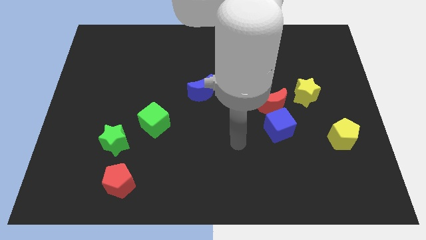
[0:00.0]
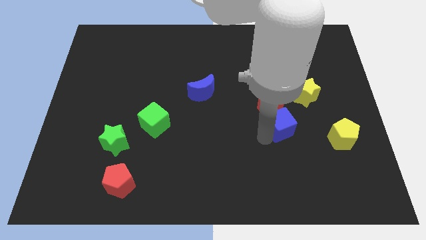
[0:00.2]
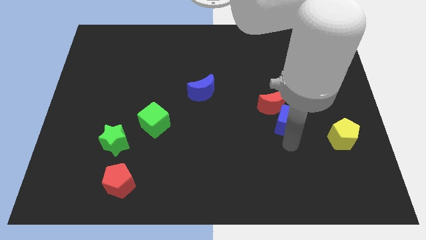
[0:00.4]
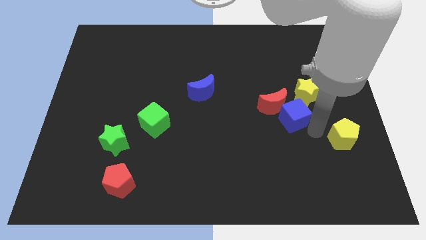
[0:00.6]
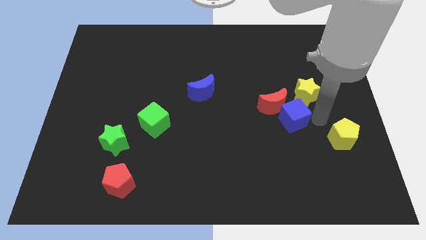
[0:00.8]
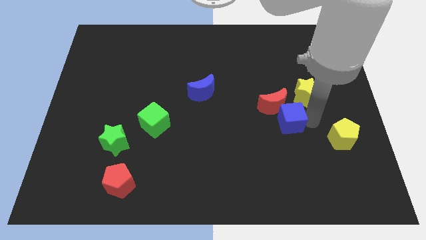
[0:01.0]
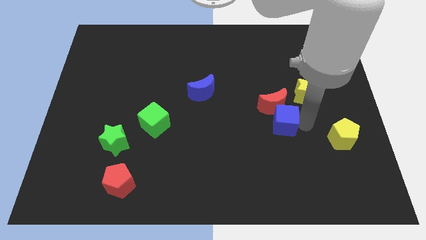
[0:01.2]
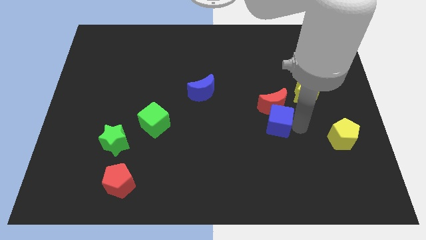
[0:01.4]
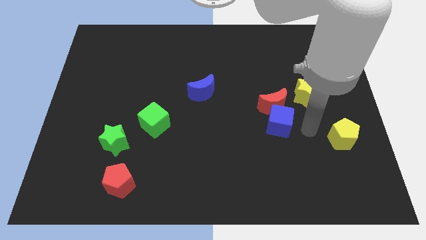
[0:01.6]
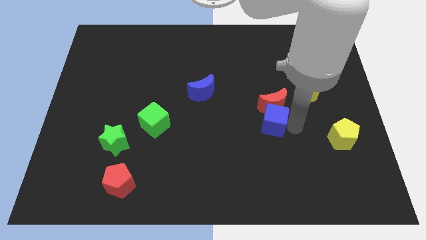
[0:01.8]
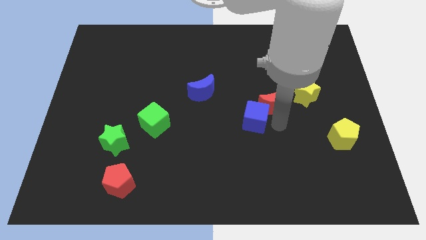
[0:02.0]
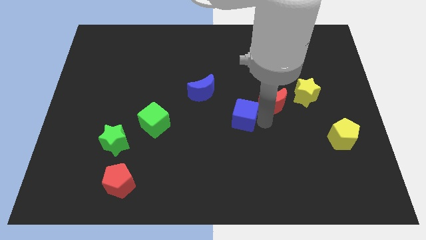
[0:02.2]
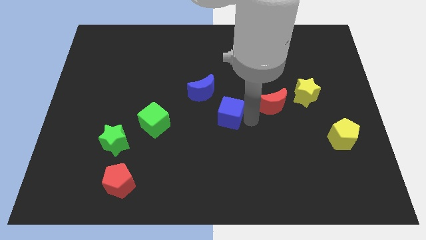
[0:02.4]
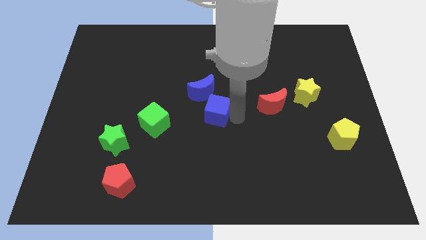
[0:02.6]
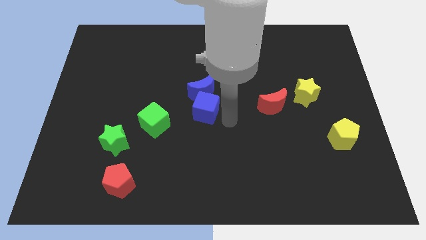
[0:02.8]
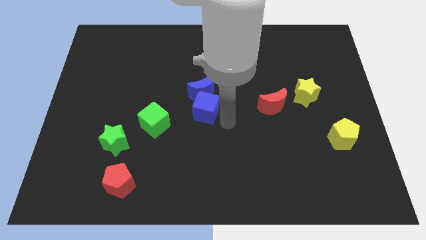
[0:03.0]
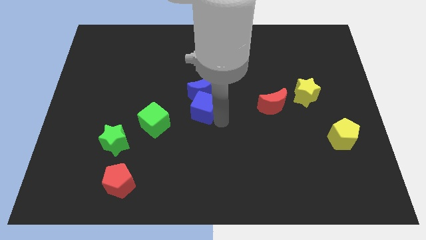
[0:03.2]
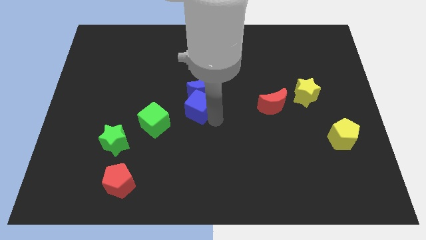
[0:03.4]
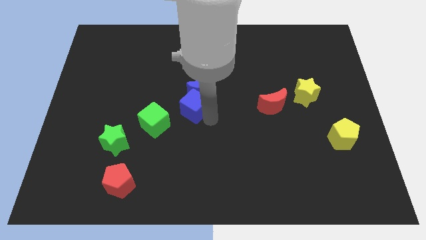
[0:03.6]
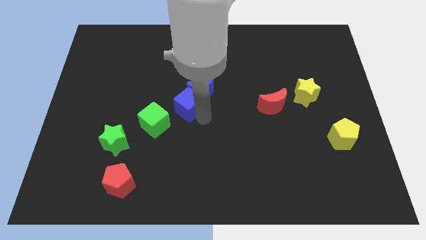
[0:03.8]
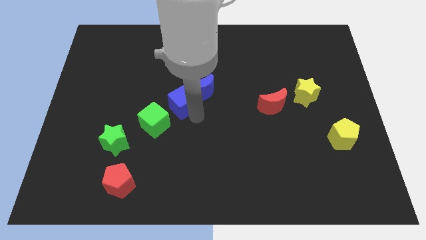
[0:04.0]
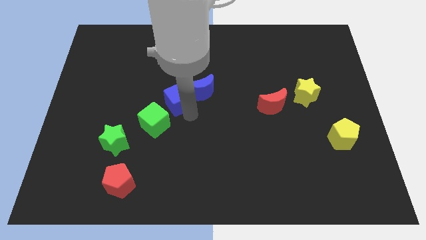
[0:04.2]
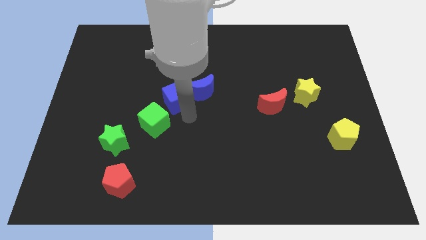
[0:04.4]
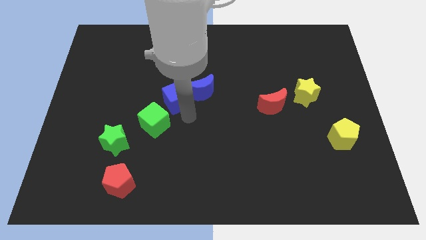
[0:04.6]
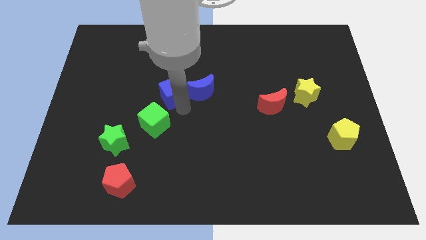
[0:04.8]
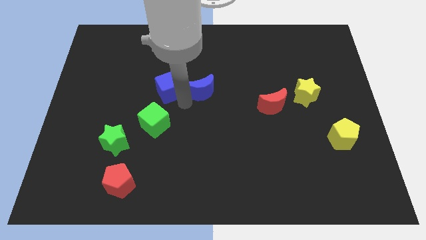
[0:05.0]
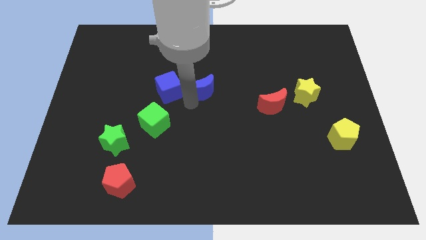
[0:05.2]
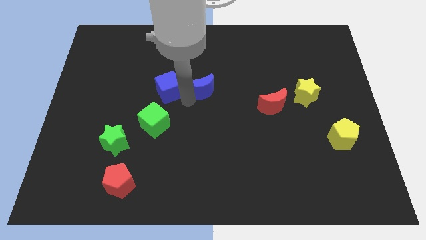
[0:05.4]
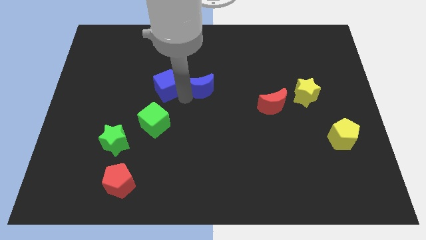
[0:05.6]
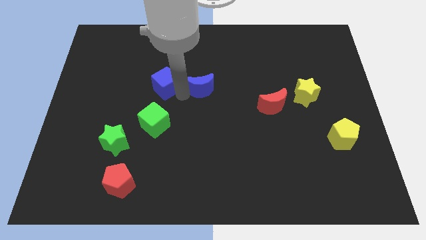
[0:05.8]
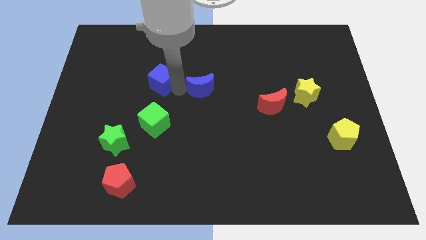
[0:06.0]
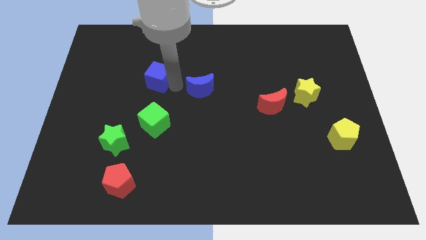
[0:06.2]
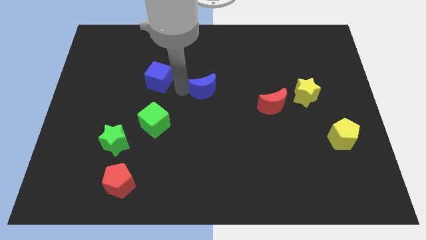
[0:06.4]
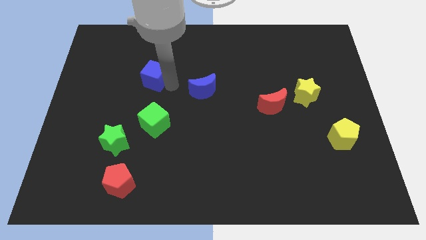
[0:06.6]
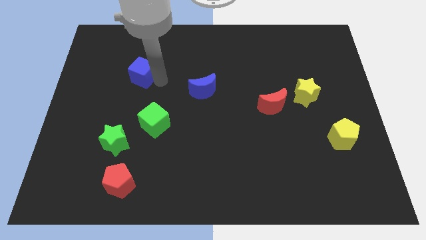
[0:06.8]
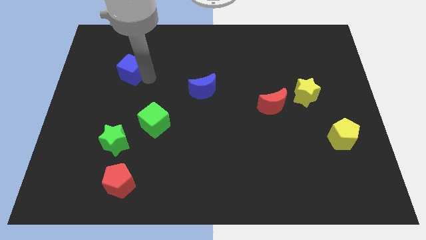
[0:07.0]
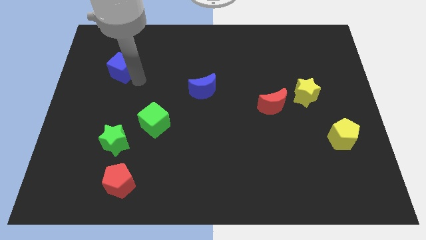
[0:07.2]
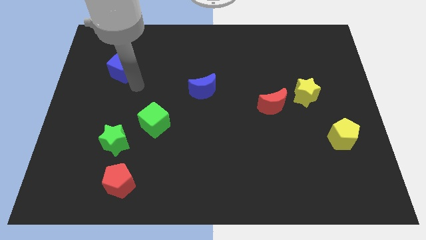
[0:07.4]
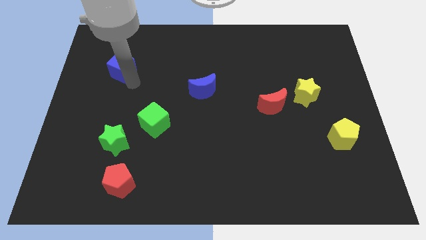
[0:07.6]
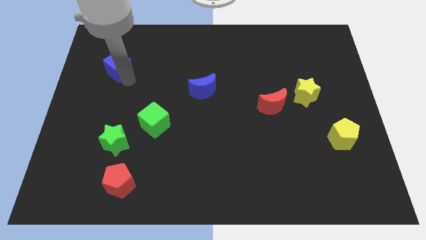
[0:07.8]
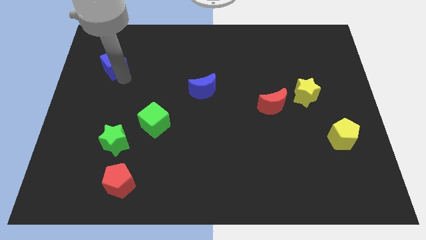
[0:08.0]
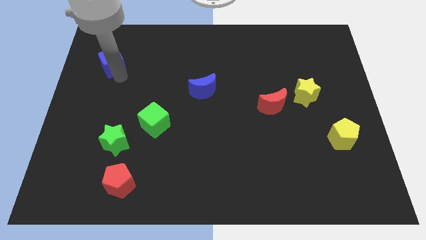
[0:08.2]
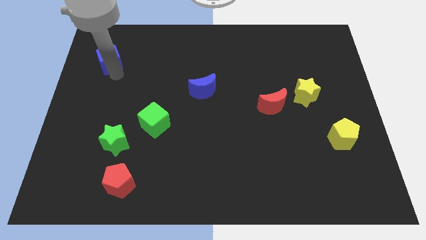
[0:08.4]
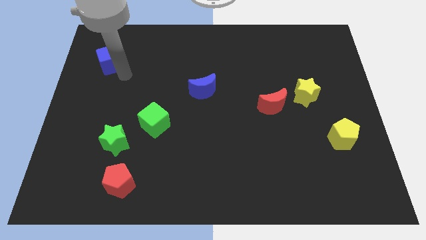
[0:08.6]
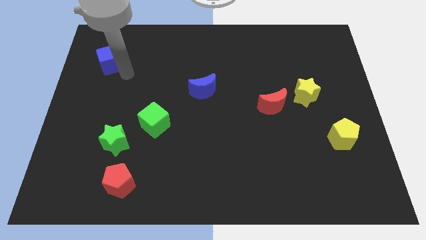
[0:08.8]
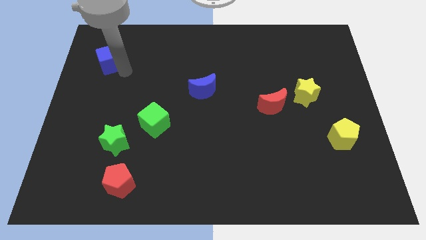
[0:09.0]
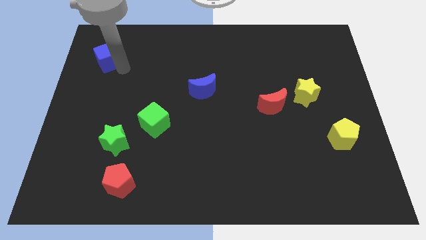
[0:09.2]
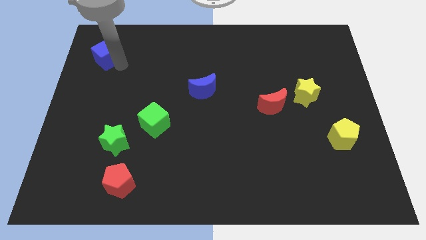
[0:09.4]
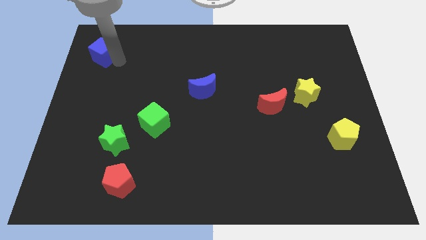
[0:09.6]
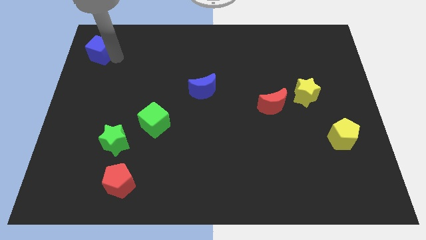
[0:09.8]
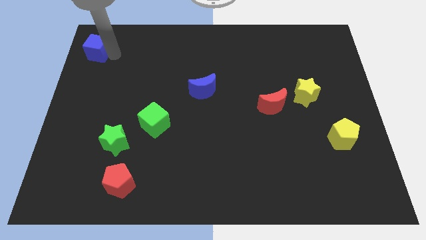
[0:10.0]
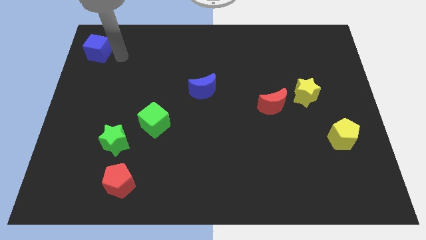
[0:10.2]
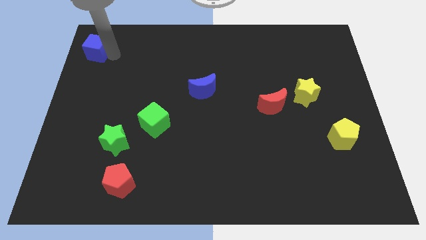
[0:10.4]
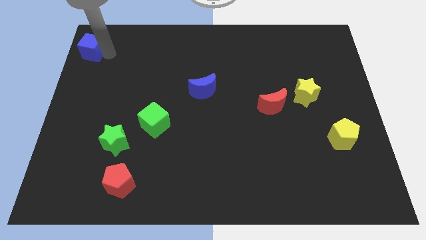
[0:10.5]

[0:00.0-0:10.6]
push the blue cube to the upper left corner

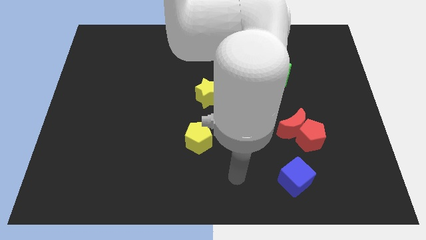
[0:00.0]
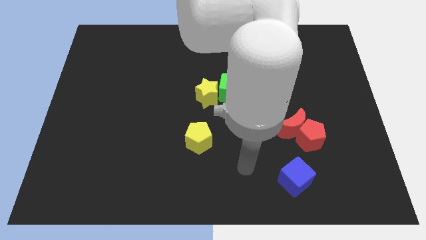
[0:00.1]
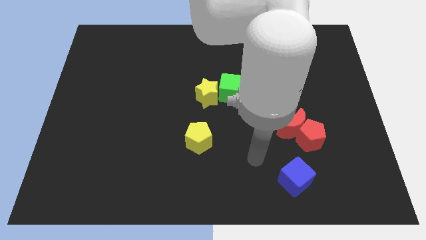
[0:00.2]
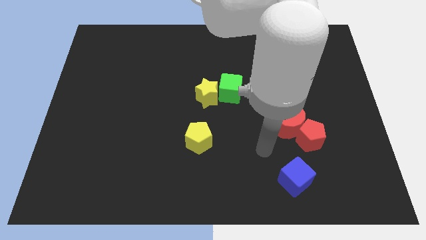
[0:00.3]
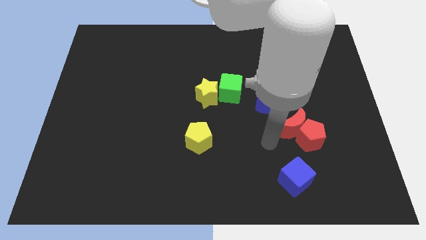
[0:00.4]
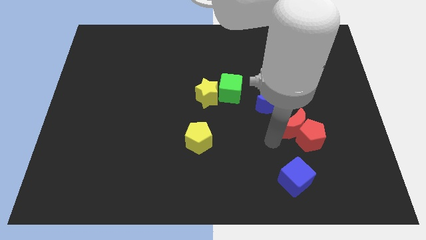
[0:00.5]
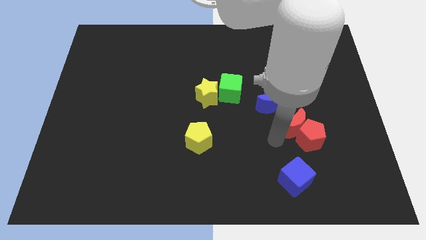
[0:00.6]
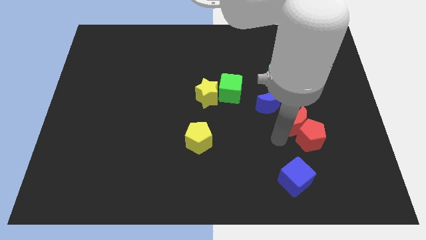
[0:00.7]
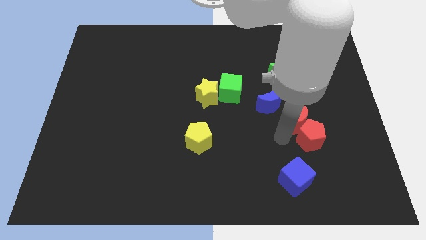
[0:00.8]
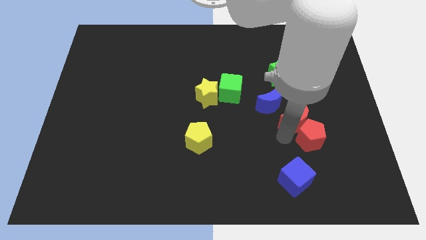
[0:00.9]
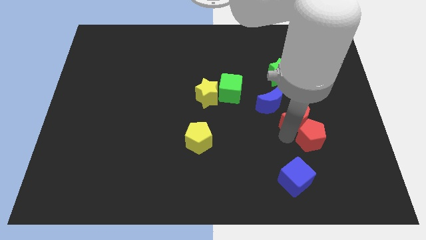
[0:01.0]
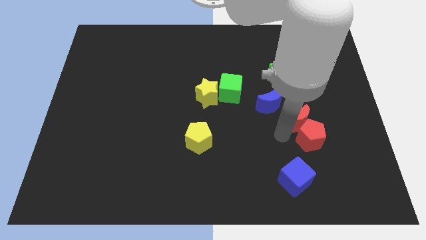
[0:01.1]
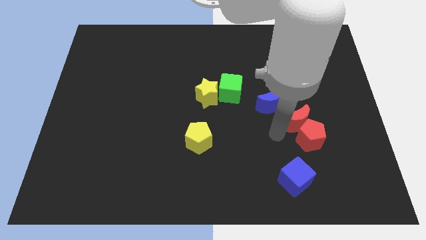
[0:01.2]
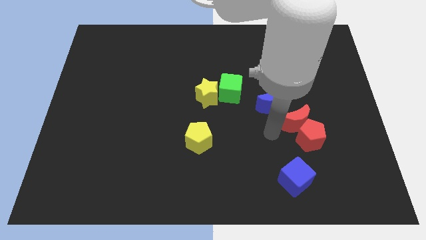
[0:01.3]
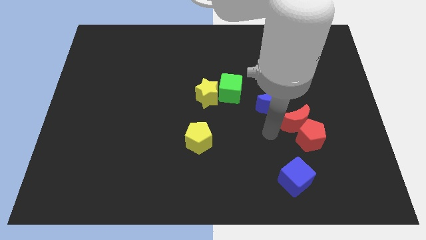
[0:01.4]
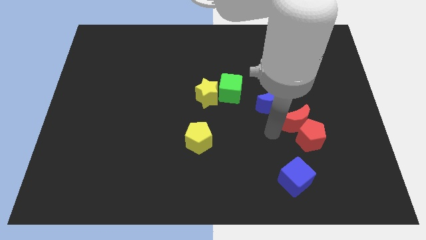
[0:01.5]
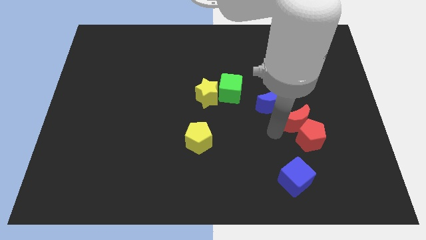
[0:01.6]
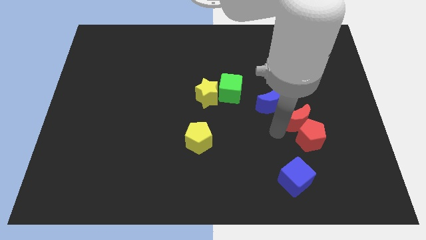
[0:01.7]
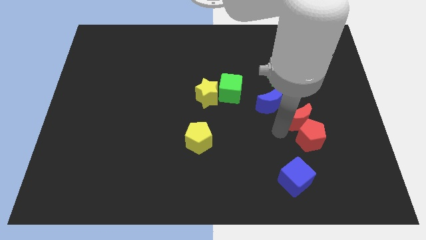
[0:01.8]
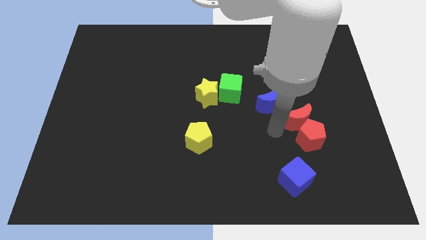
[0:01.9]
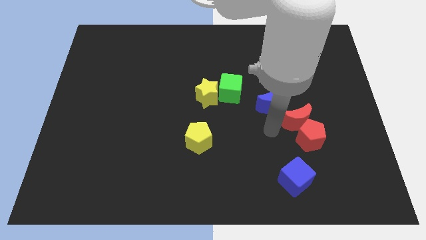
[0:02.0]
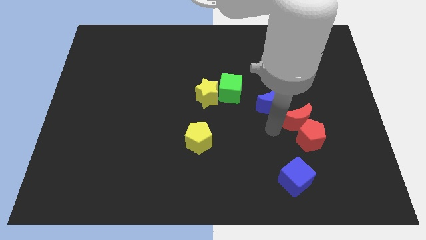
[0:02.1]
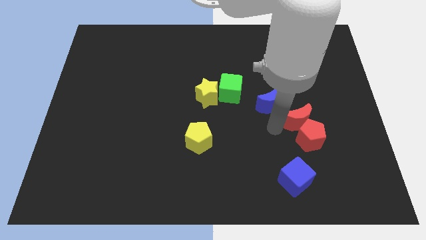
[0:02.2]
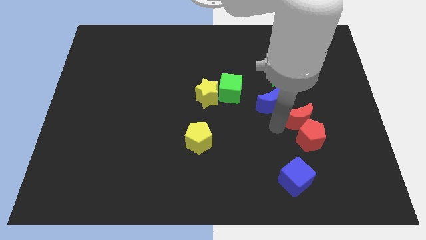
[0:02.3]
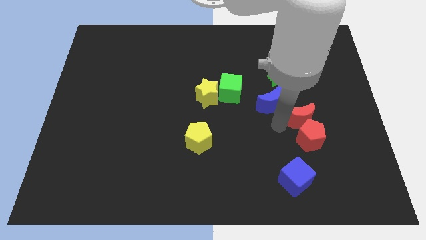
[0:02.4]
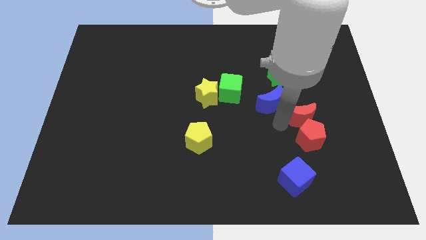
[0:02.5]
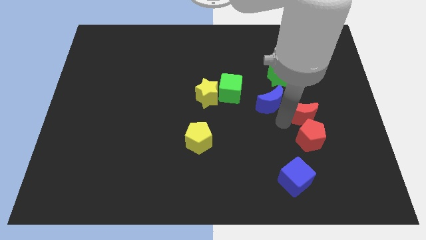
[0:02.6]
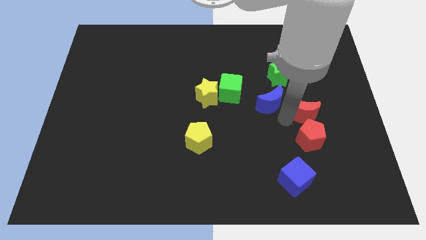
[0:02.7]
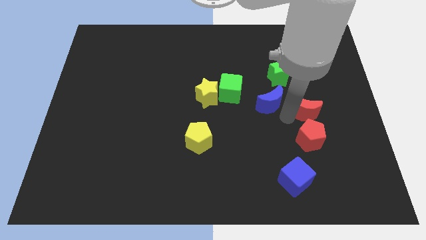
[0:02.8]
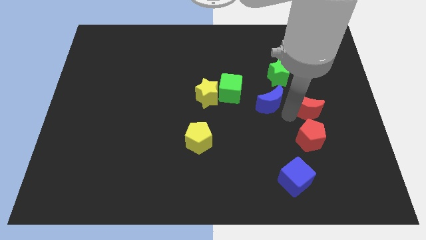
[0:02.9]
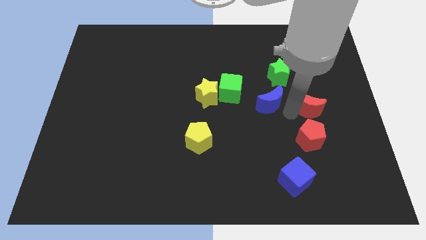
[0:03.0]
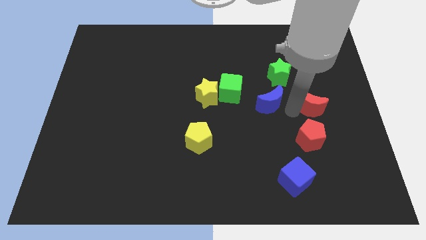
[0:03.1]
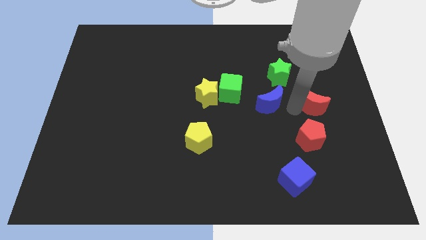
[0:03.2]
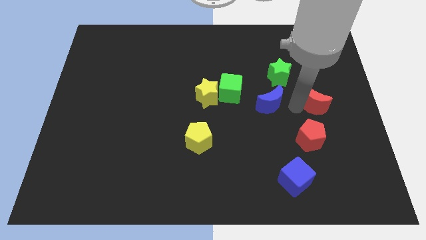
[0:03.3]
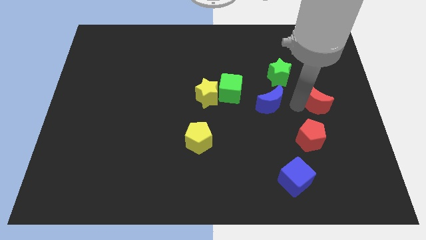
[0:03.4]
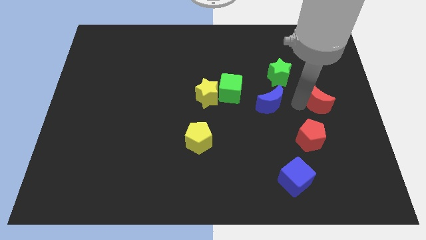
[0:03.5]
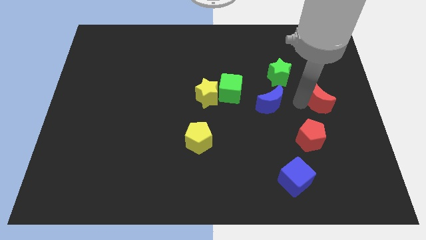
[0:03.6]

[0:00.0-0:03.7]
put the red moon to the center right
